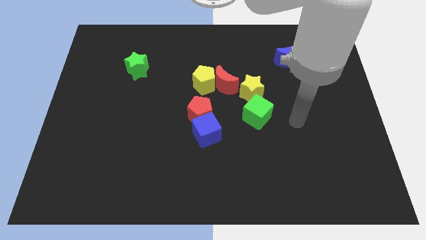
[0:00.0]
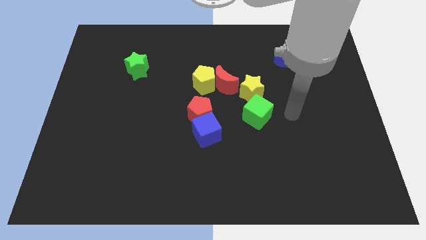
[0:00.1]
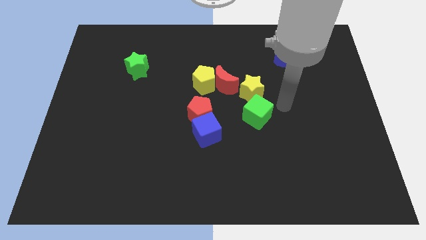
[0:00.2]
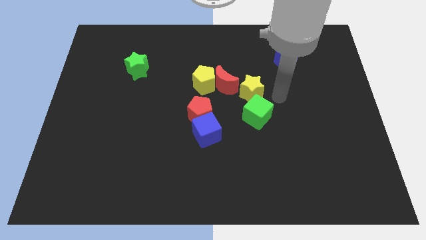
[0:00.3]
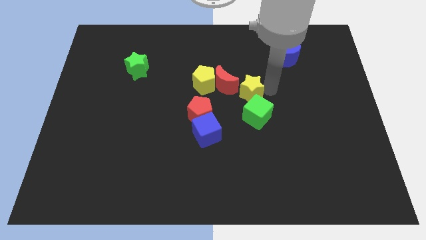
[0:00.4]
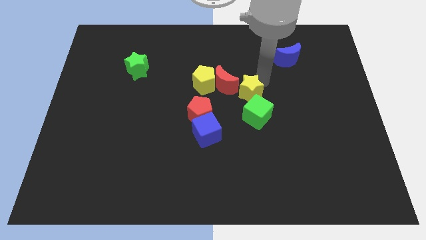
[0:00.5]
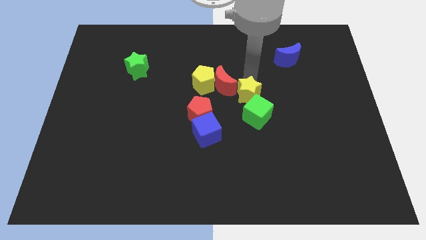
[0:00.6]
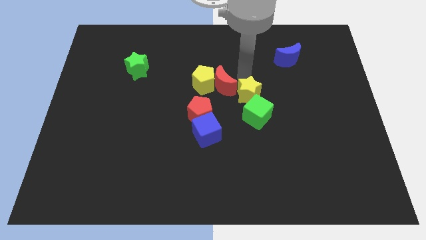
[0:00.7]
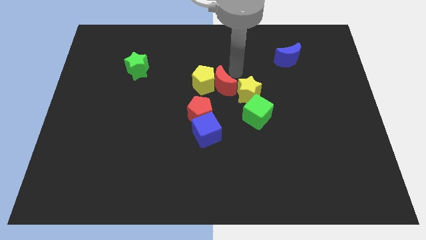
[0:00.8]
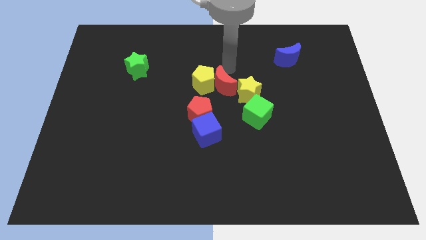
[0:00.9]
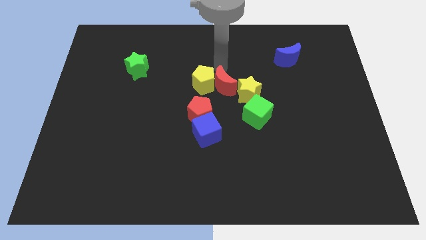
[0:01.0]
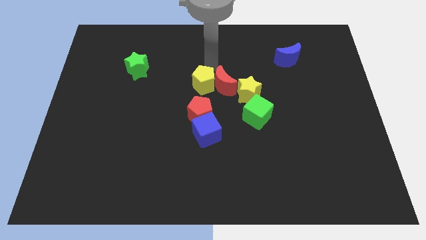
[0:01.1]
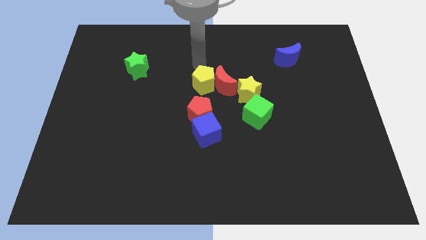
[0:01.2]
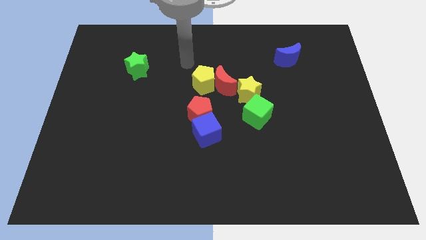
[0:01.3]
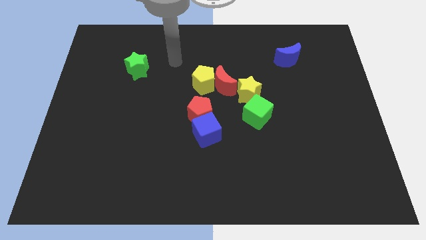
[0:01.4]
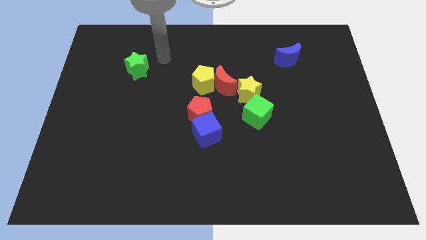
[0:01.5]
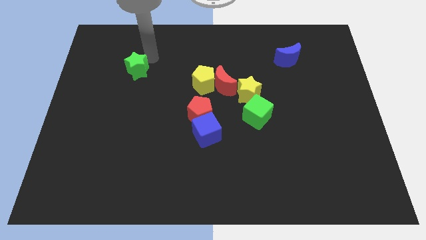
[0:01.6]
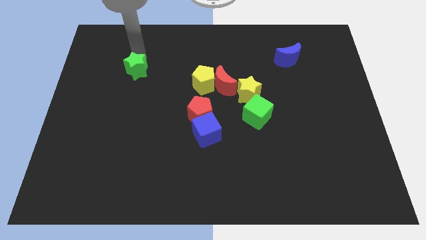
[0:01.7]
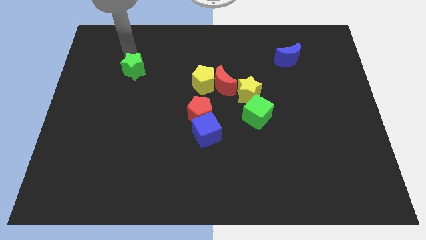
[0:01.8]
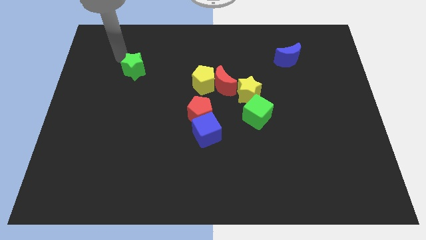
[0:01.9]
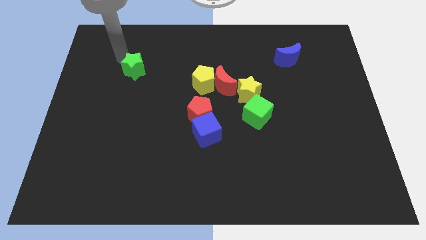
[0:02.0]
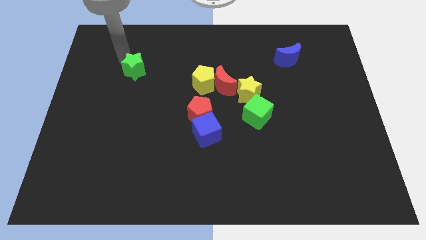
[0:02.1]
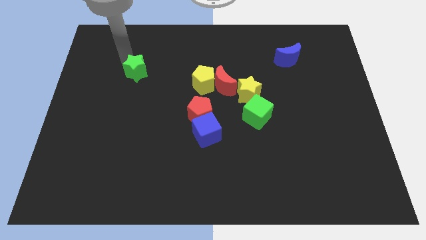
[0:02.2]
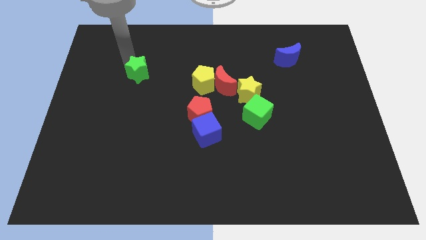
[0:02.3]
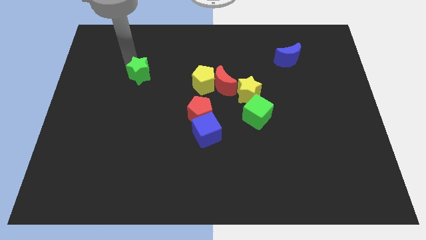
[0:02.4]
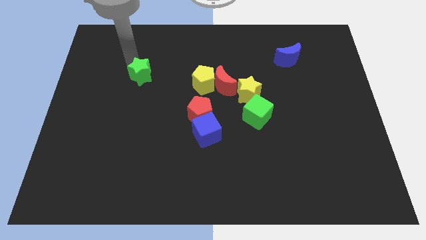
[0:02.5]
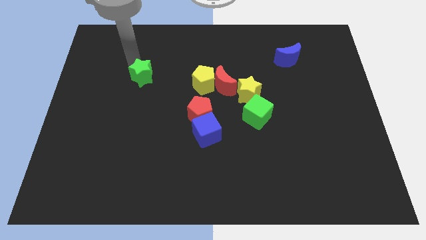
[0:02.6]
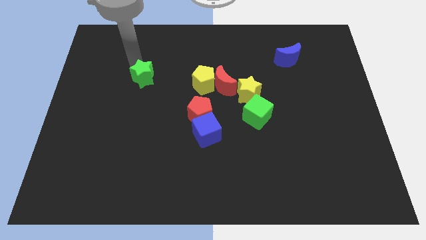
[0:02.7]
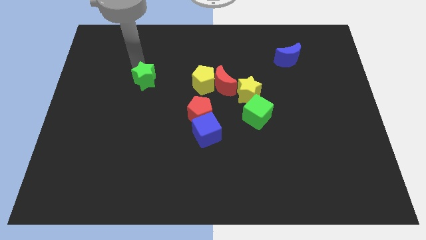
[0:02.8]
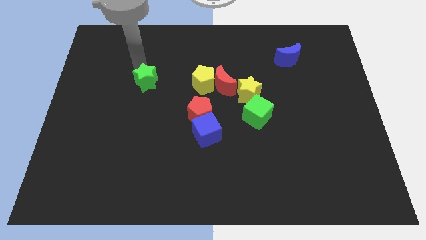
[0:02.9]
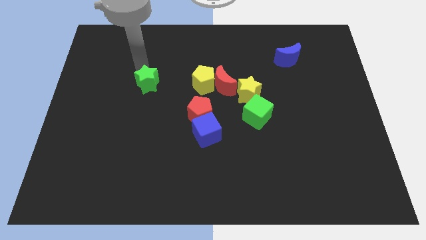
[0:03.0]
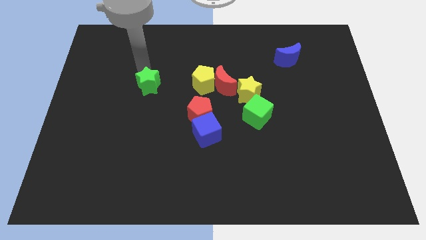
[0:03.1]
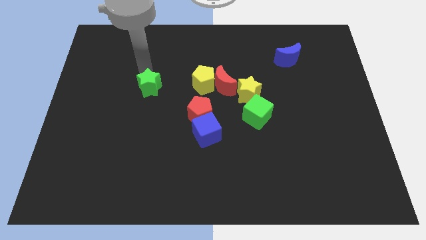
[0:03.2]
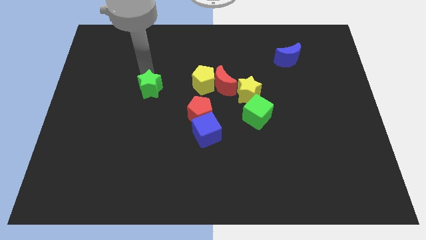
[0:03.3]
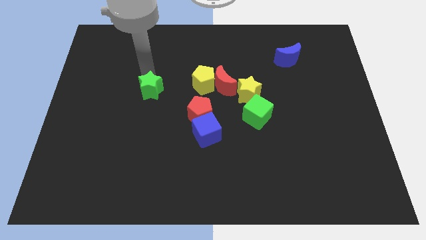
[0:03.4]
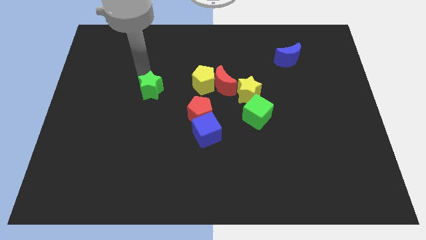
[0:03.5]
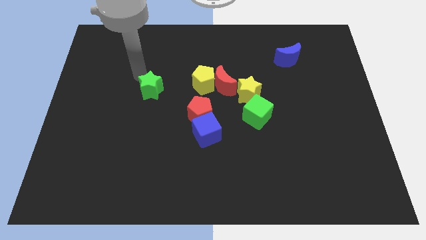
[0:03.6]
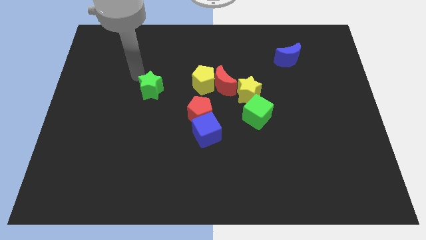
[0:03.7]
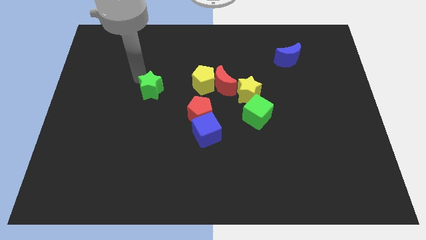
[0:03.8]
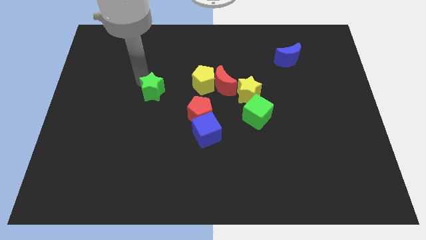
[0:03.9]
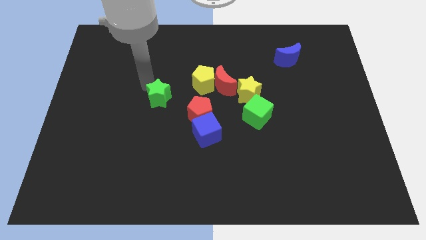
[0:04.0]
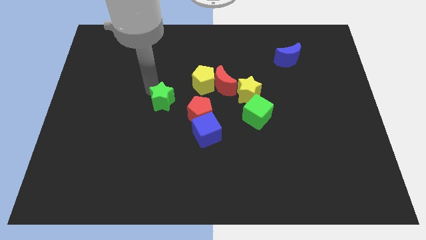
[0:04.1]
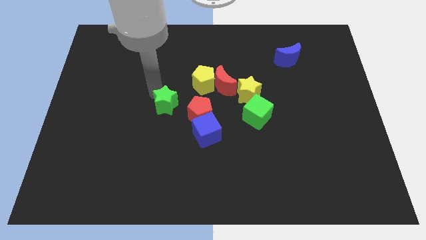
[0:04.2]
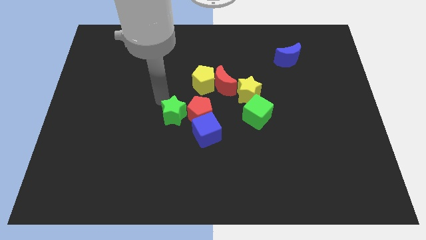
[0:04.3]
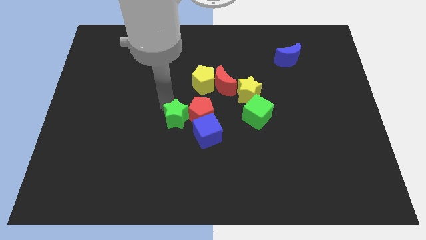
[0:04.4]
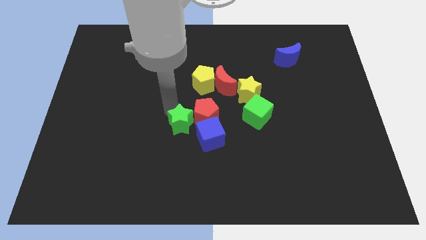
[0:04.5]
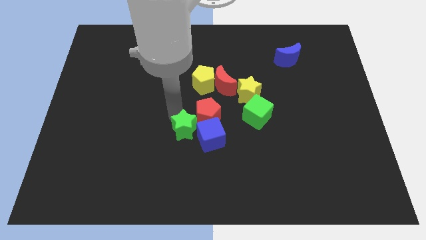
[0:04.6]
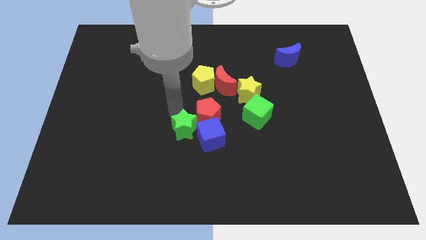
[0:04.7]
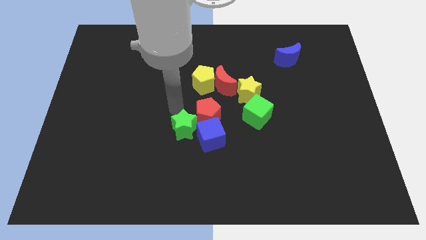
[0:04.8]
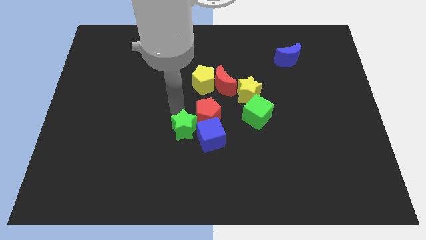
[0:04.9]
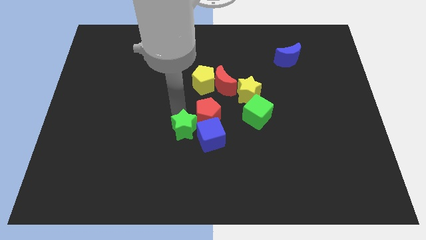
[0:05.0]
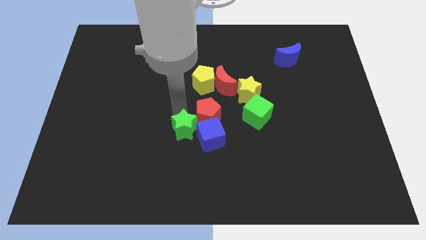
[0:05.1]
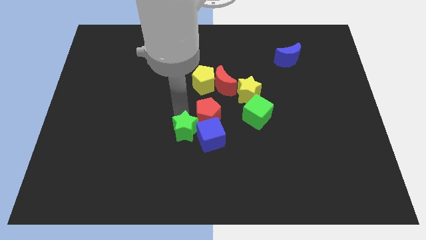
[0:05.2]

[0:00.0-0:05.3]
put the green star to the bottom of the red pentagon

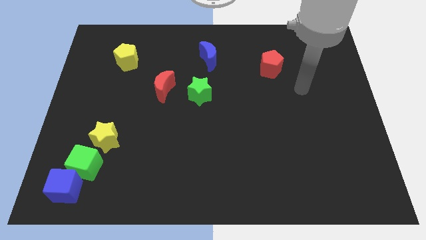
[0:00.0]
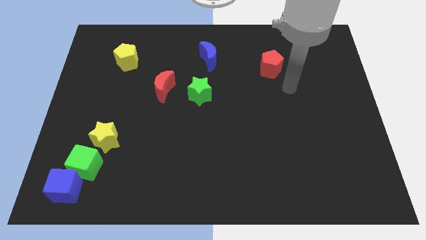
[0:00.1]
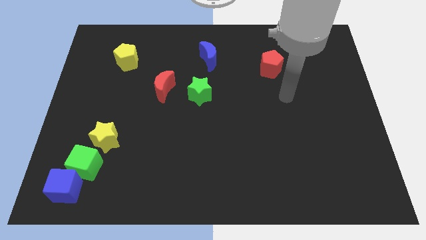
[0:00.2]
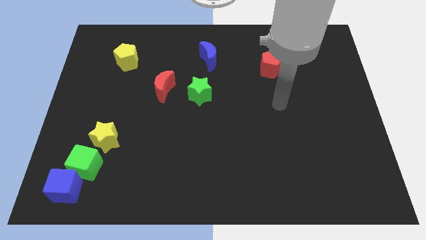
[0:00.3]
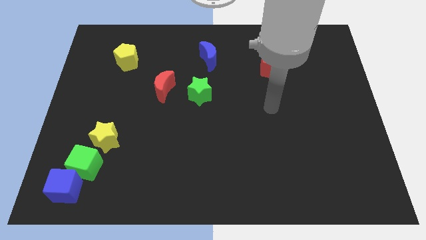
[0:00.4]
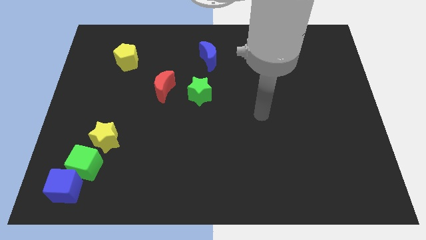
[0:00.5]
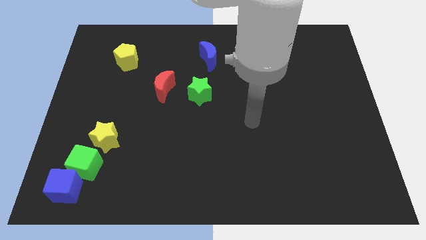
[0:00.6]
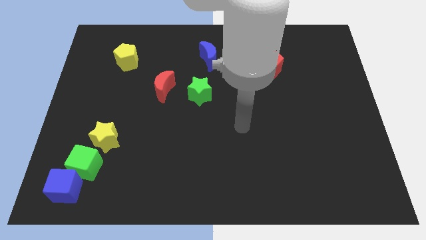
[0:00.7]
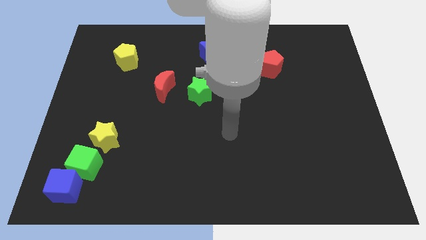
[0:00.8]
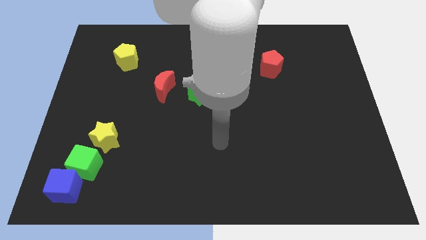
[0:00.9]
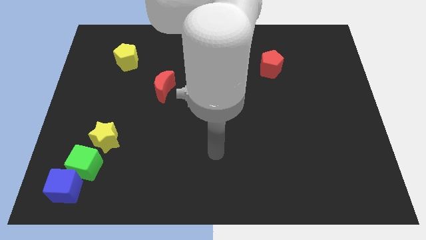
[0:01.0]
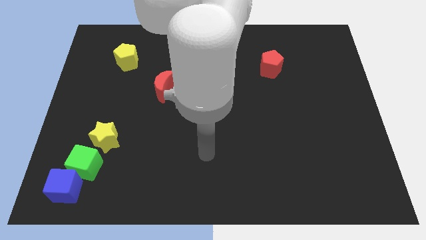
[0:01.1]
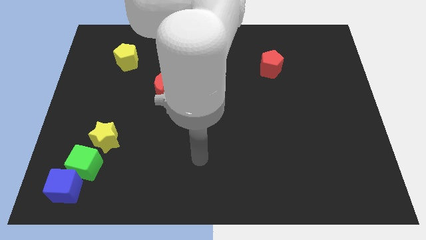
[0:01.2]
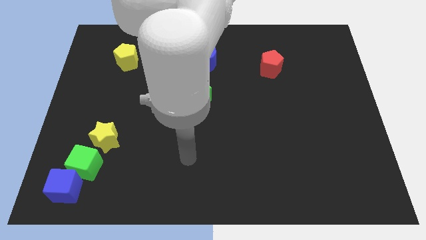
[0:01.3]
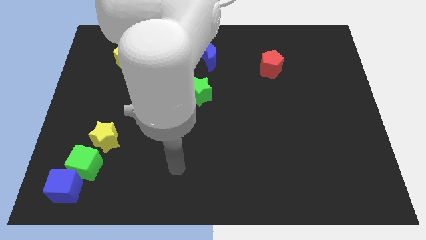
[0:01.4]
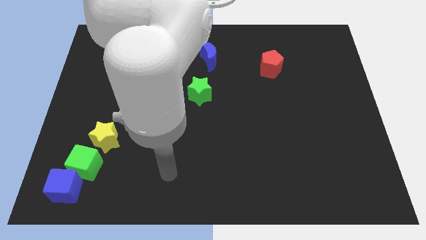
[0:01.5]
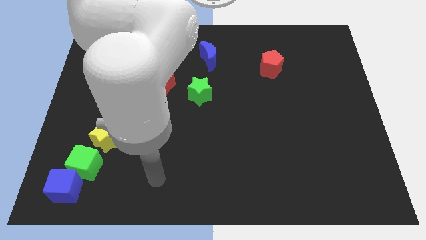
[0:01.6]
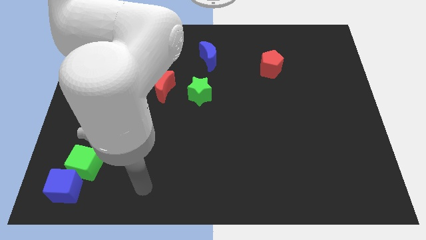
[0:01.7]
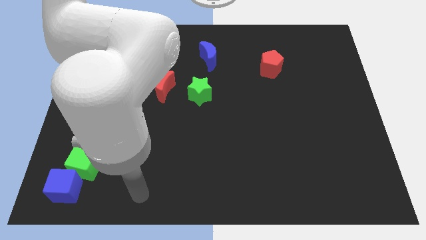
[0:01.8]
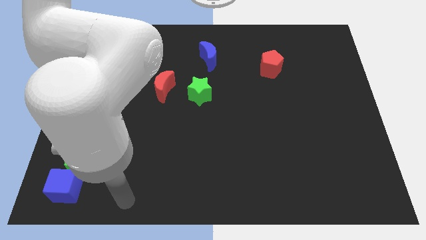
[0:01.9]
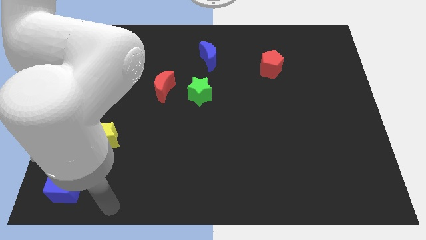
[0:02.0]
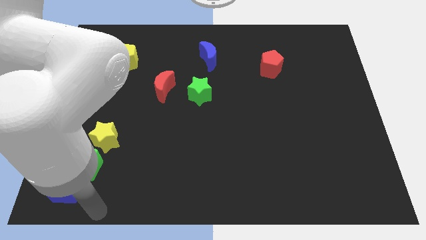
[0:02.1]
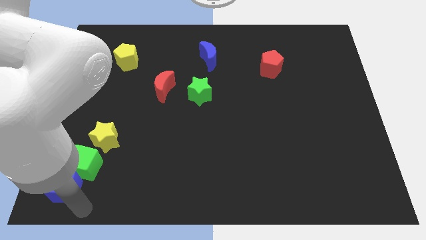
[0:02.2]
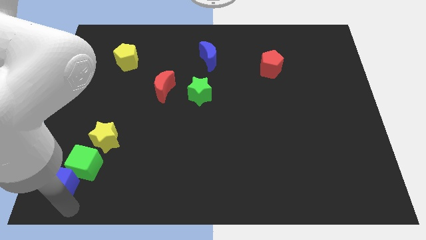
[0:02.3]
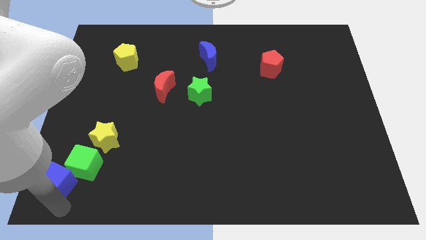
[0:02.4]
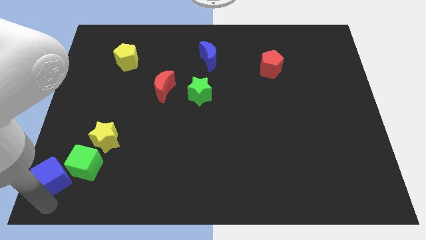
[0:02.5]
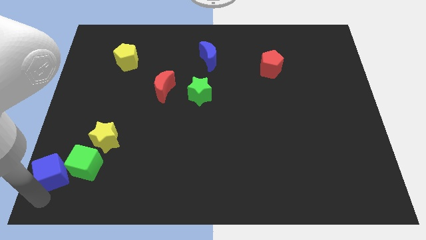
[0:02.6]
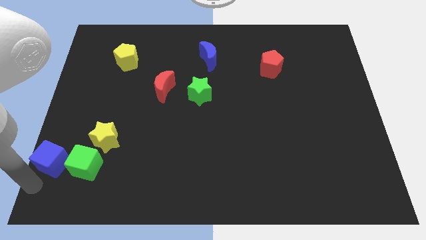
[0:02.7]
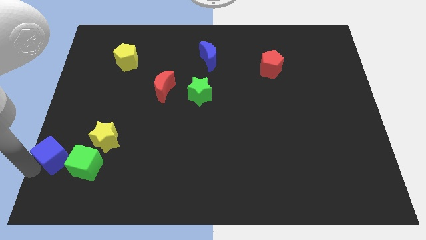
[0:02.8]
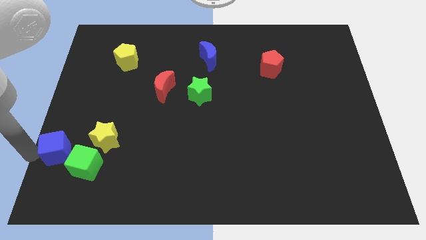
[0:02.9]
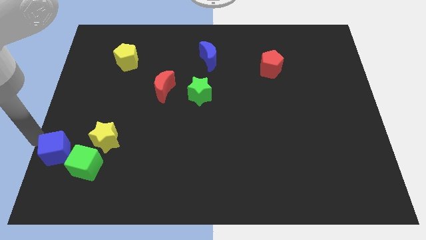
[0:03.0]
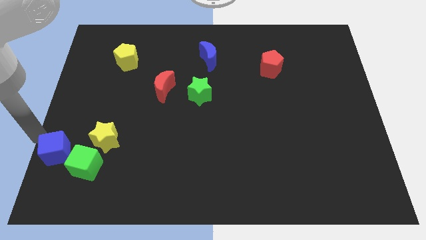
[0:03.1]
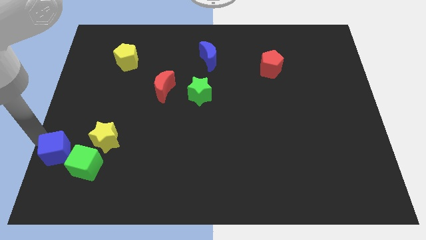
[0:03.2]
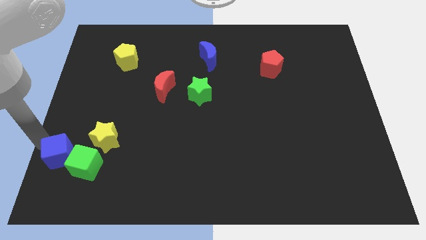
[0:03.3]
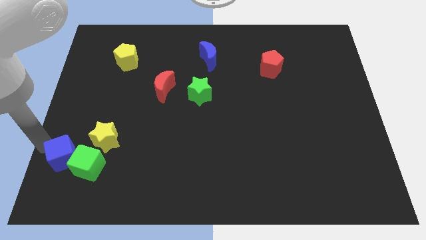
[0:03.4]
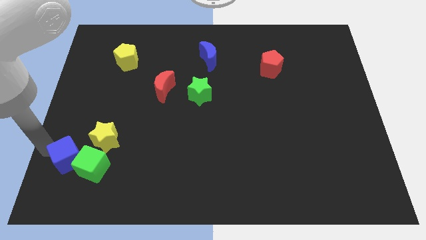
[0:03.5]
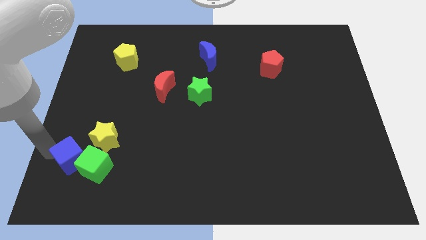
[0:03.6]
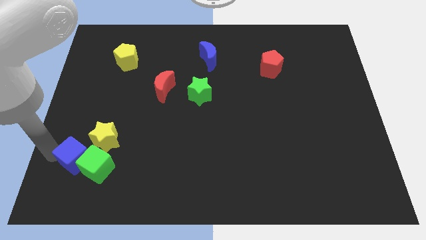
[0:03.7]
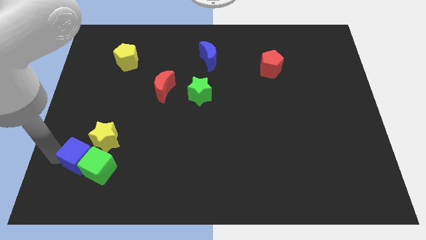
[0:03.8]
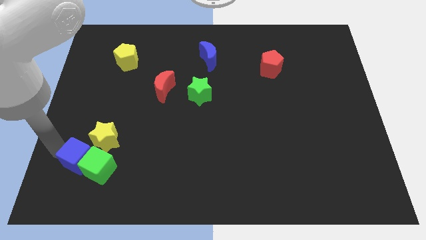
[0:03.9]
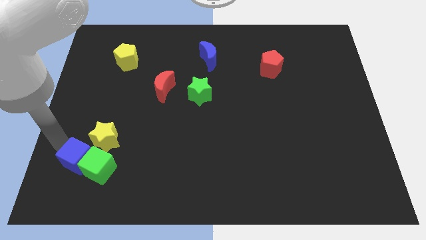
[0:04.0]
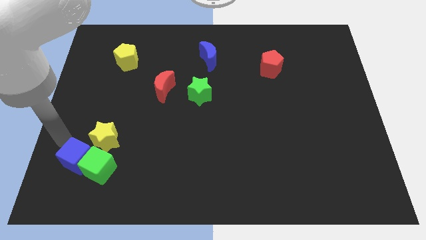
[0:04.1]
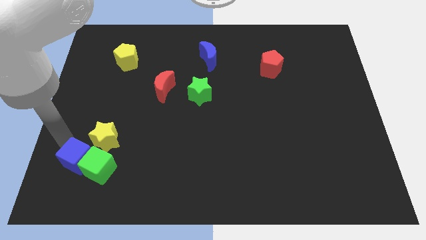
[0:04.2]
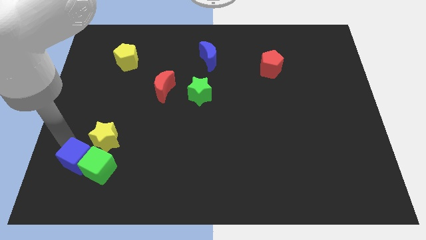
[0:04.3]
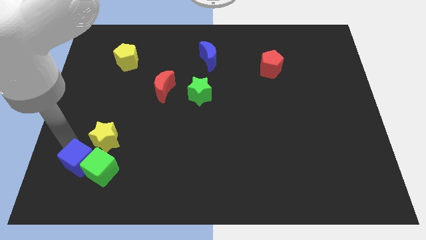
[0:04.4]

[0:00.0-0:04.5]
move the blue cube below the yellow star
